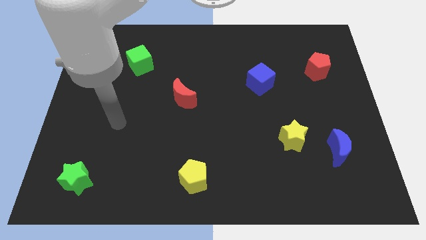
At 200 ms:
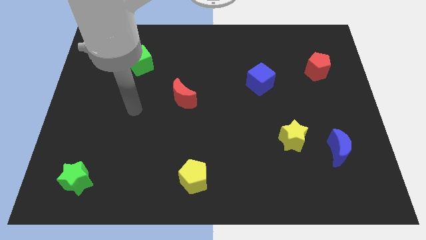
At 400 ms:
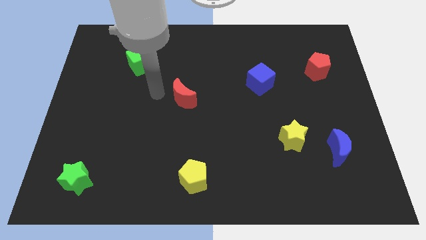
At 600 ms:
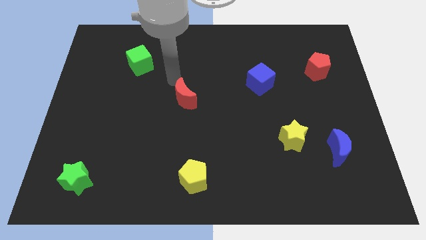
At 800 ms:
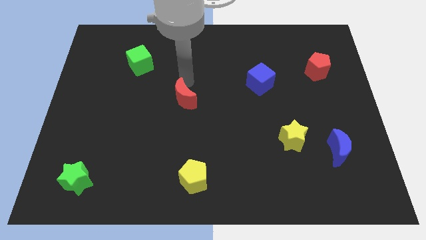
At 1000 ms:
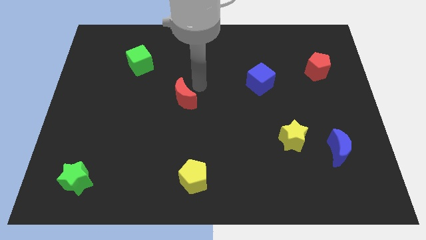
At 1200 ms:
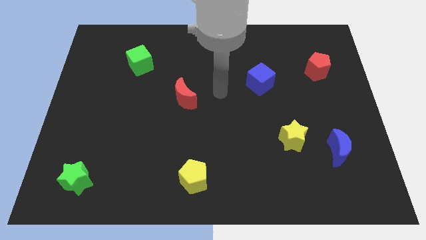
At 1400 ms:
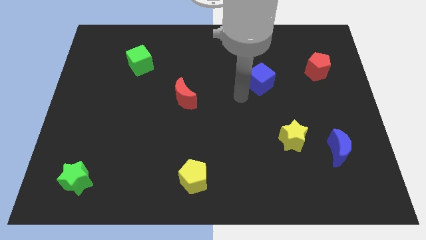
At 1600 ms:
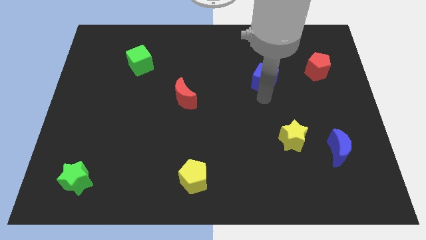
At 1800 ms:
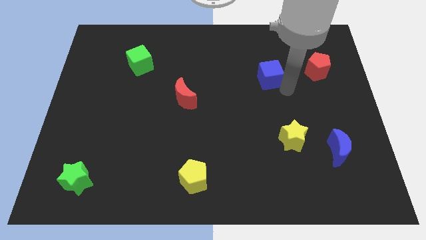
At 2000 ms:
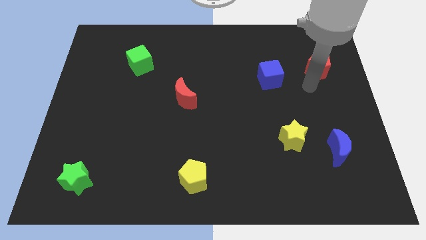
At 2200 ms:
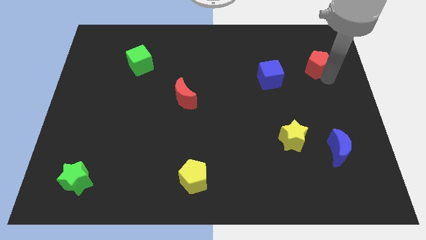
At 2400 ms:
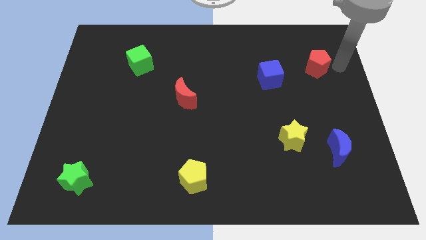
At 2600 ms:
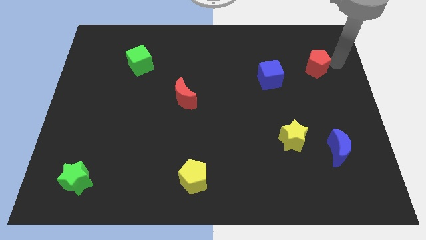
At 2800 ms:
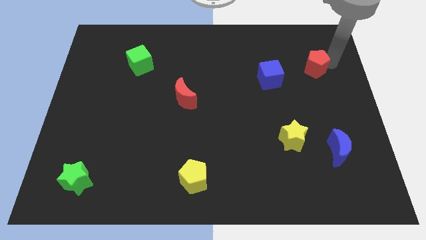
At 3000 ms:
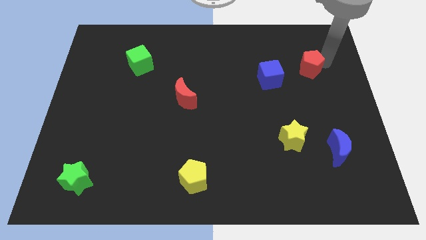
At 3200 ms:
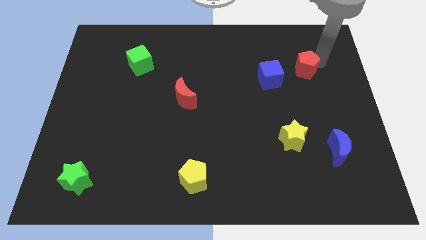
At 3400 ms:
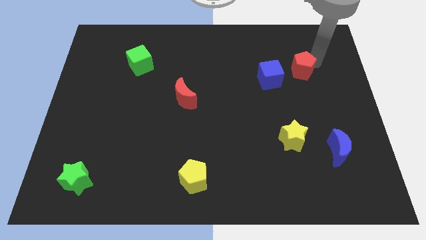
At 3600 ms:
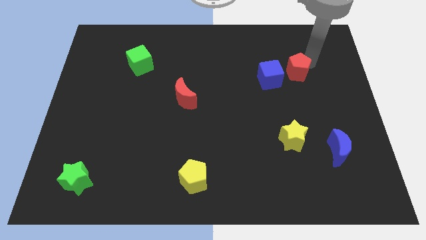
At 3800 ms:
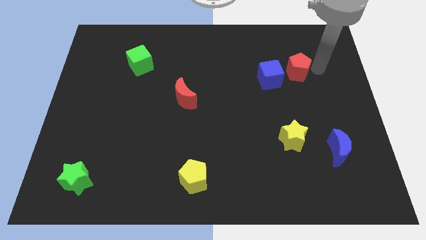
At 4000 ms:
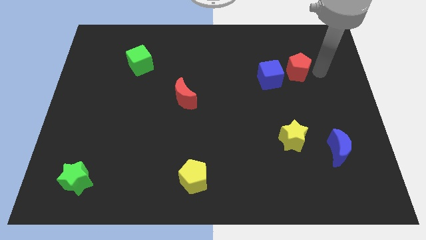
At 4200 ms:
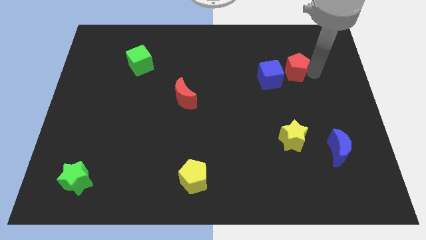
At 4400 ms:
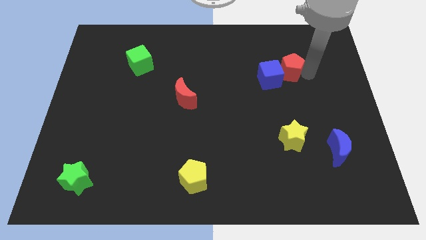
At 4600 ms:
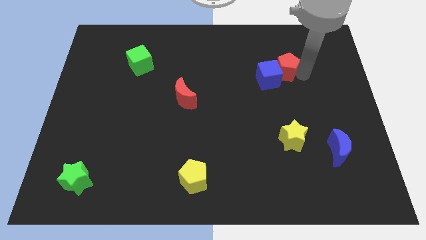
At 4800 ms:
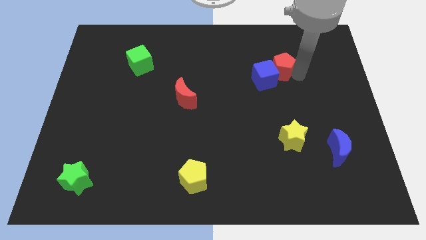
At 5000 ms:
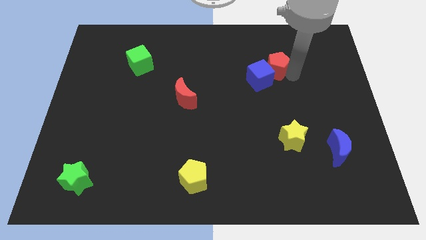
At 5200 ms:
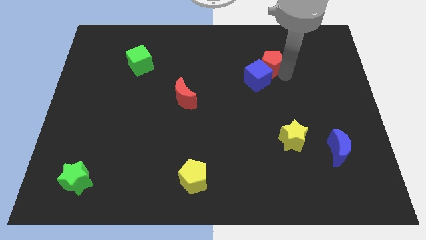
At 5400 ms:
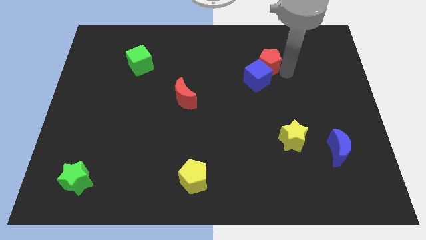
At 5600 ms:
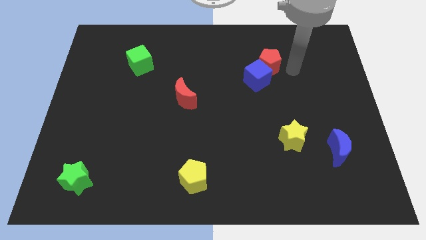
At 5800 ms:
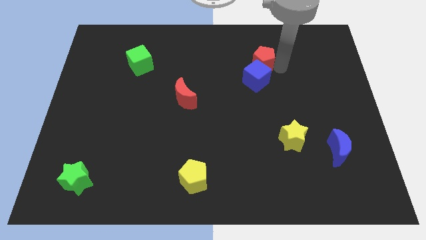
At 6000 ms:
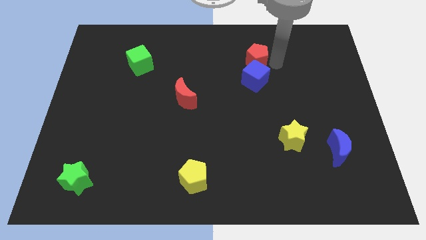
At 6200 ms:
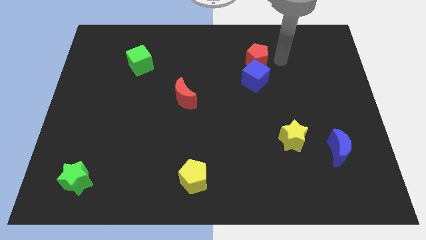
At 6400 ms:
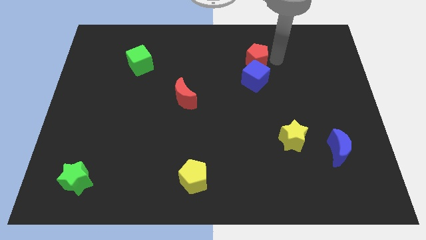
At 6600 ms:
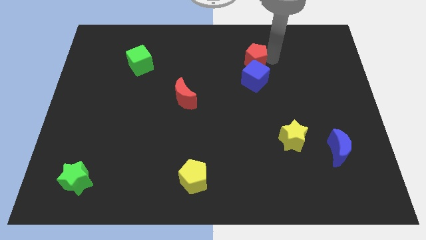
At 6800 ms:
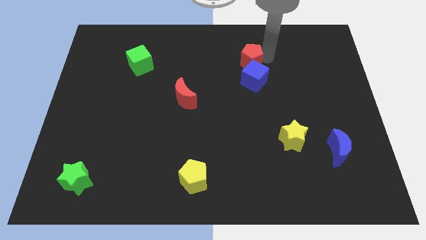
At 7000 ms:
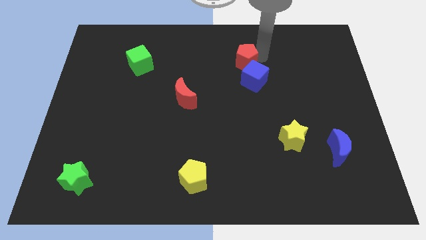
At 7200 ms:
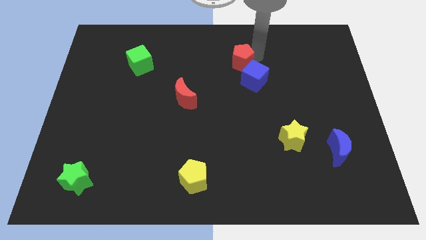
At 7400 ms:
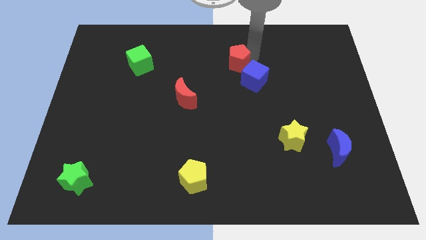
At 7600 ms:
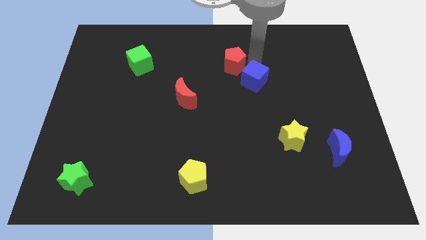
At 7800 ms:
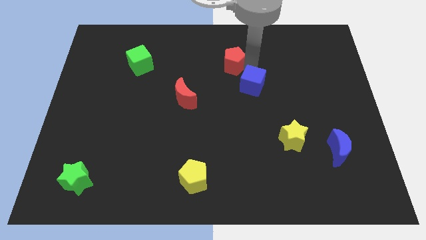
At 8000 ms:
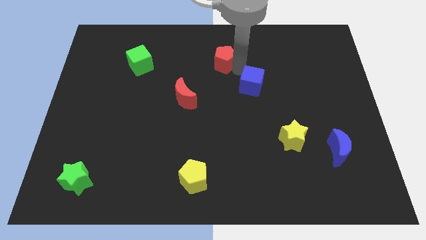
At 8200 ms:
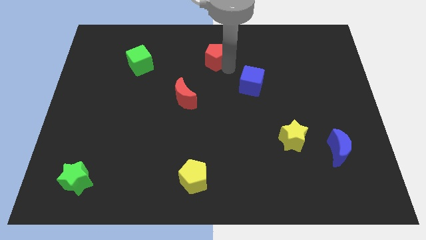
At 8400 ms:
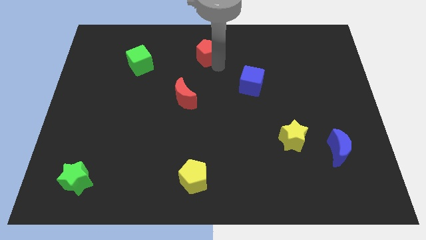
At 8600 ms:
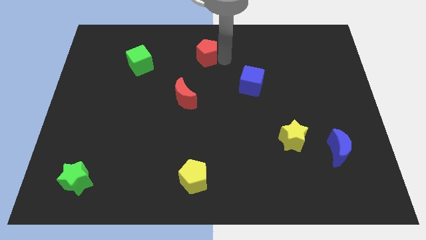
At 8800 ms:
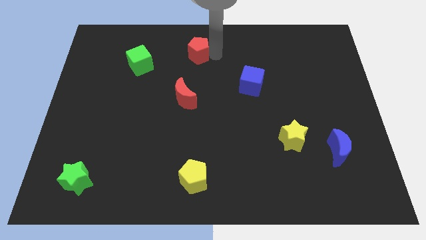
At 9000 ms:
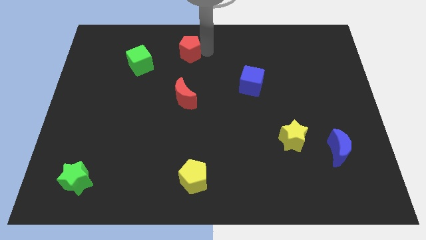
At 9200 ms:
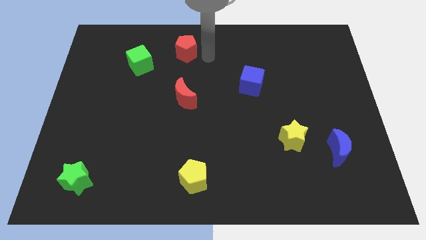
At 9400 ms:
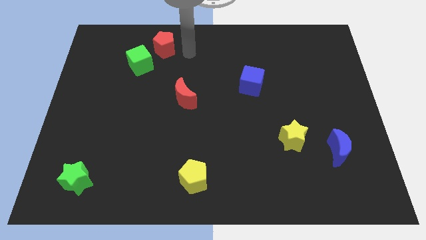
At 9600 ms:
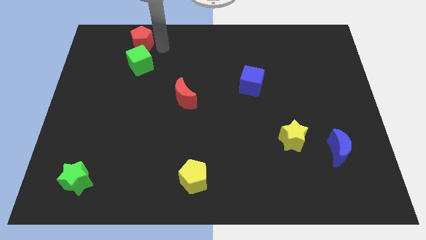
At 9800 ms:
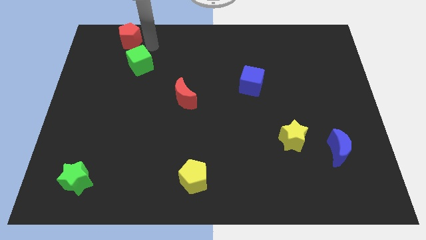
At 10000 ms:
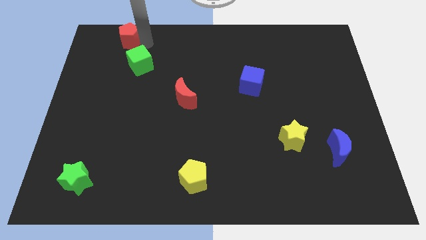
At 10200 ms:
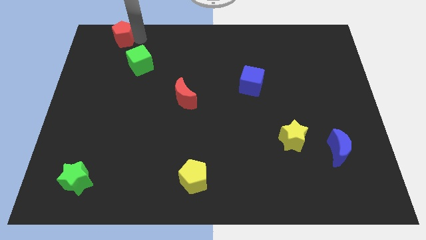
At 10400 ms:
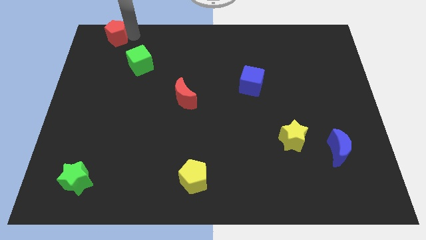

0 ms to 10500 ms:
put the red pentagon to the upper left corner

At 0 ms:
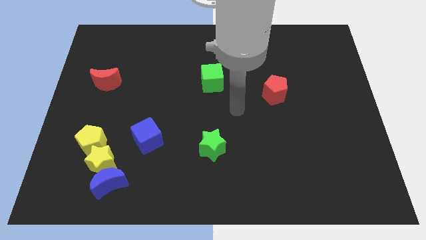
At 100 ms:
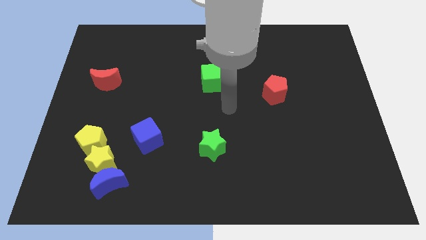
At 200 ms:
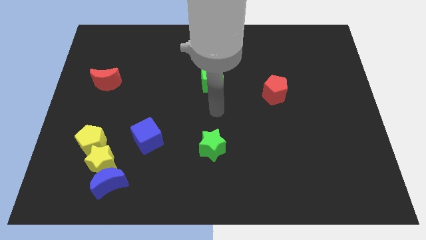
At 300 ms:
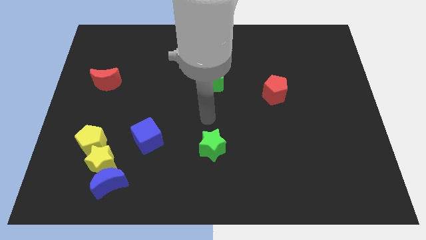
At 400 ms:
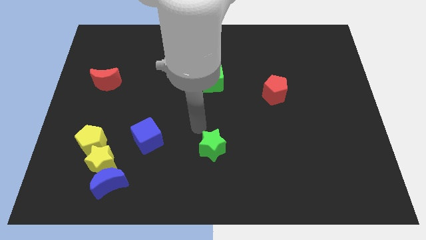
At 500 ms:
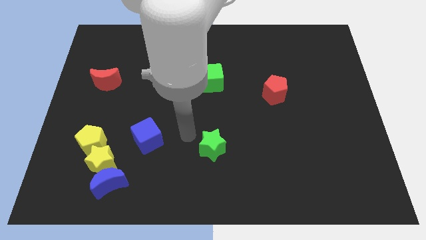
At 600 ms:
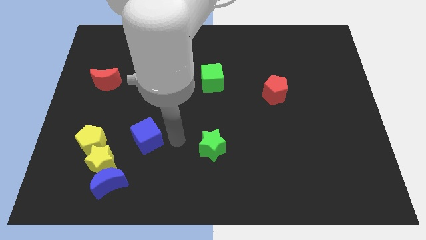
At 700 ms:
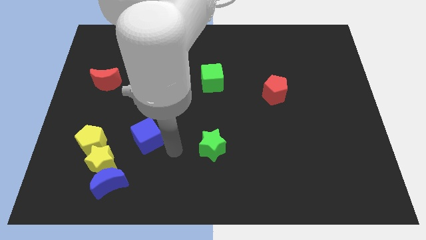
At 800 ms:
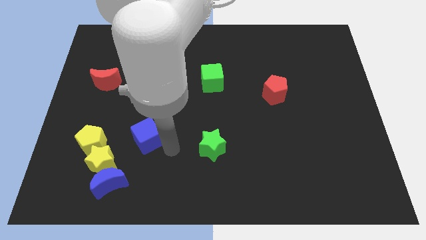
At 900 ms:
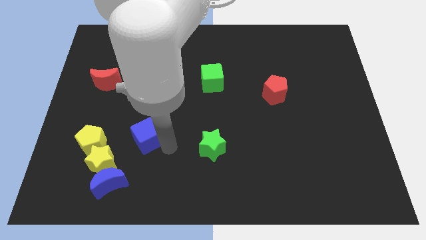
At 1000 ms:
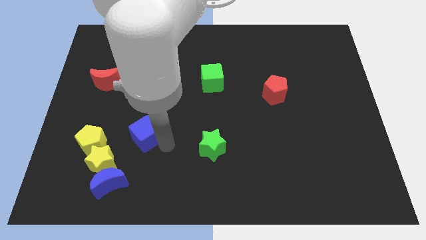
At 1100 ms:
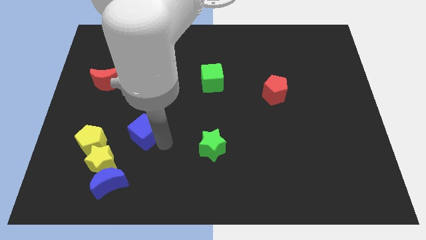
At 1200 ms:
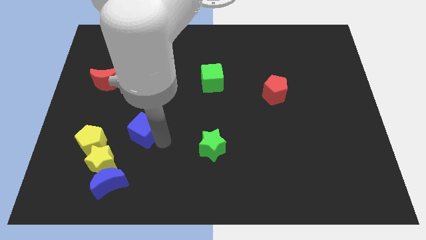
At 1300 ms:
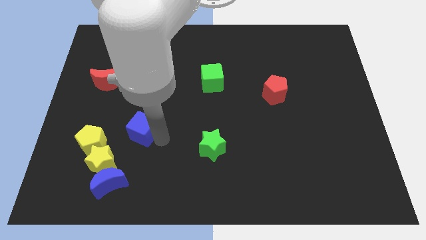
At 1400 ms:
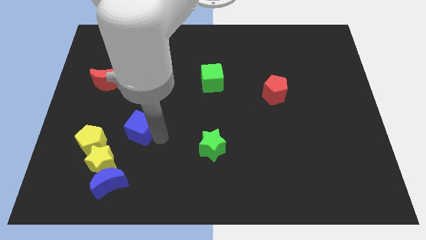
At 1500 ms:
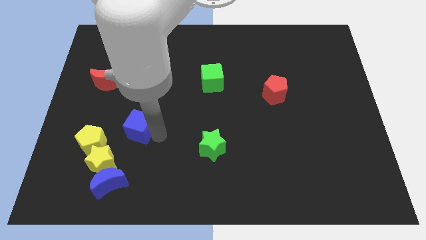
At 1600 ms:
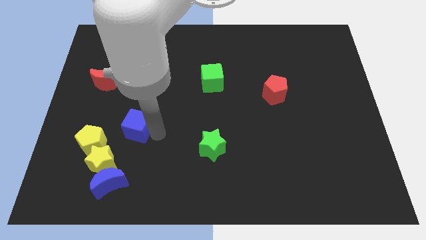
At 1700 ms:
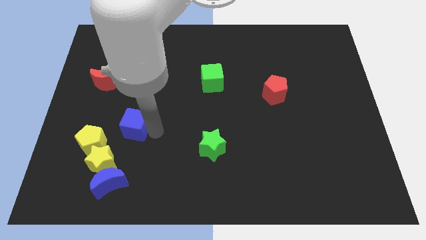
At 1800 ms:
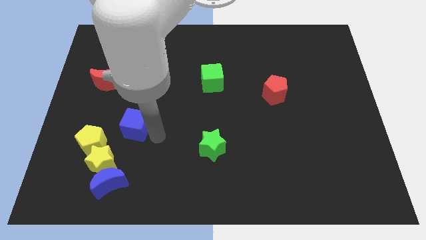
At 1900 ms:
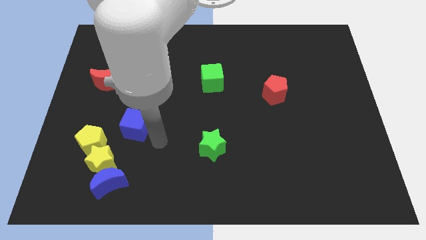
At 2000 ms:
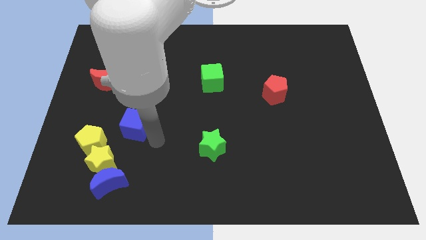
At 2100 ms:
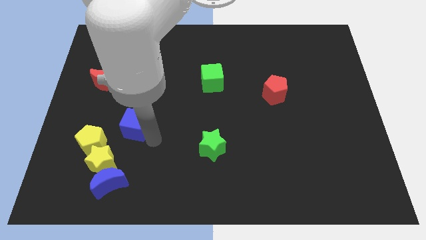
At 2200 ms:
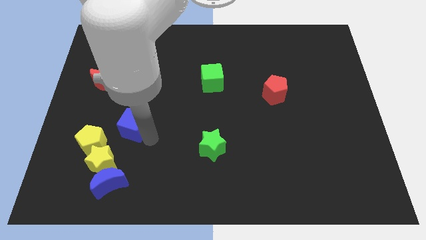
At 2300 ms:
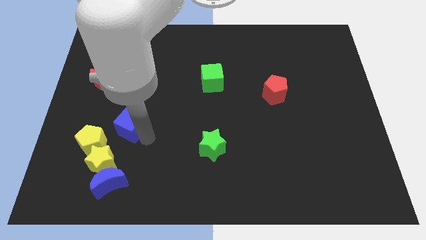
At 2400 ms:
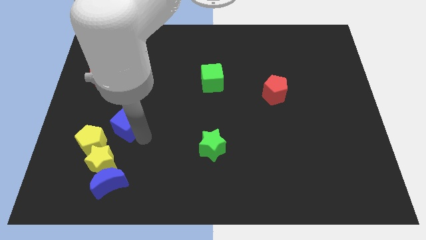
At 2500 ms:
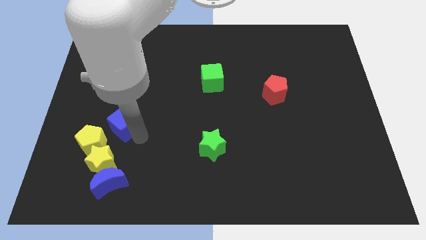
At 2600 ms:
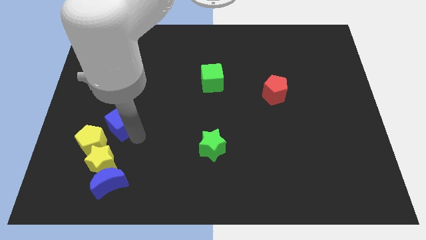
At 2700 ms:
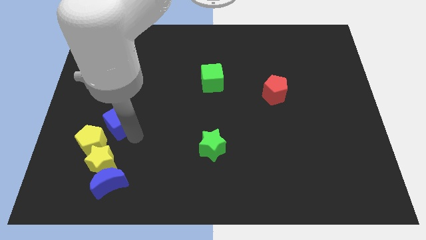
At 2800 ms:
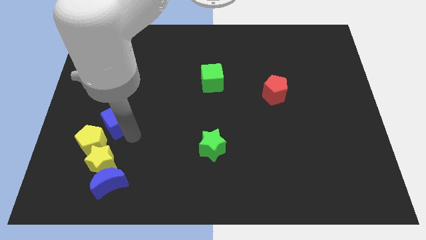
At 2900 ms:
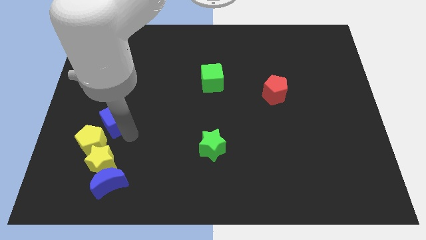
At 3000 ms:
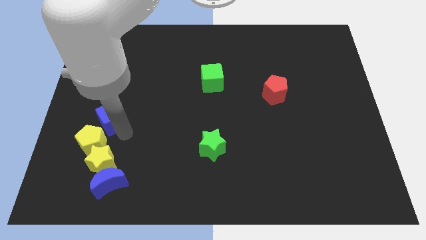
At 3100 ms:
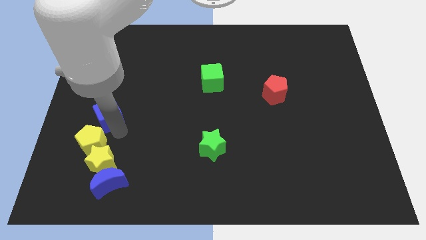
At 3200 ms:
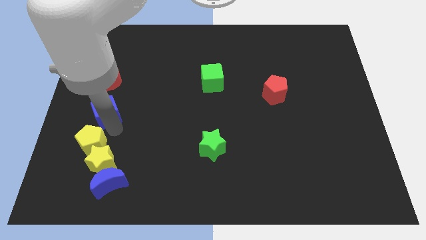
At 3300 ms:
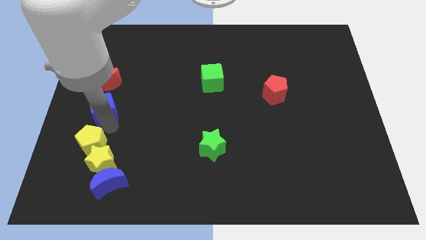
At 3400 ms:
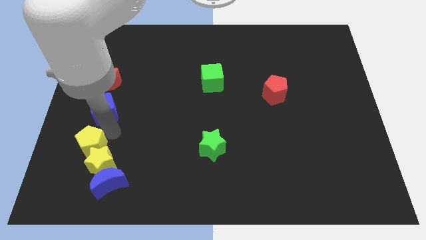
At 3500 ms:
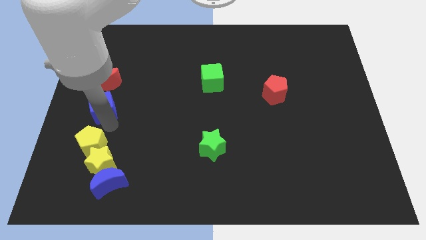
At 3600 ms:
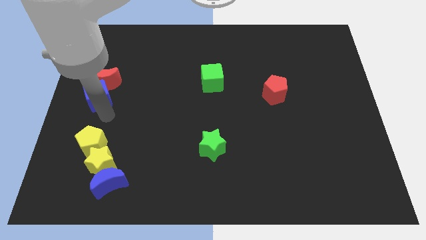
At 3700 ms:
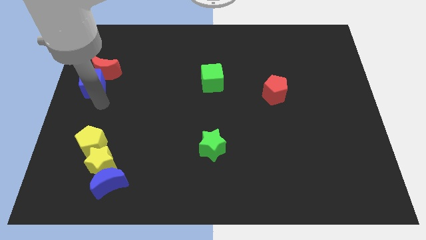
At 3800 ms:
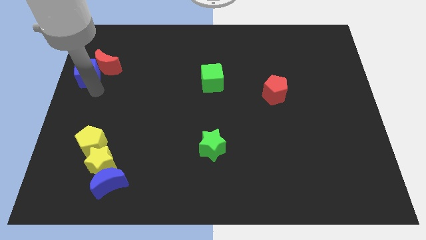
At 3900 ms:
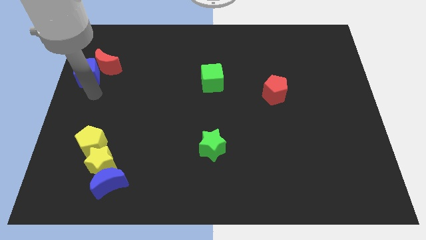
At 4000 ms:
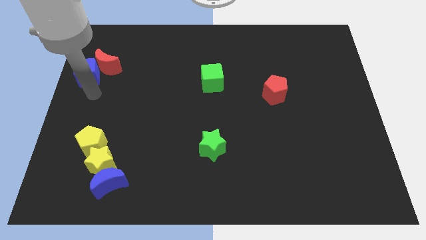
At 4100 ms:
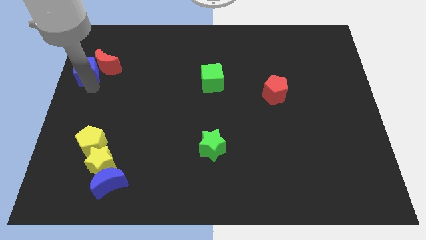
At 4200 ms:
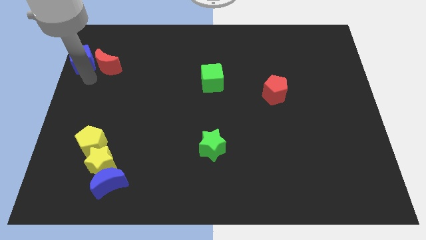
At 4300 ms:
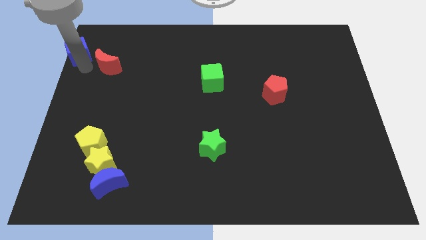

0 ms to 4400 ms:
move the blue cube to the upper left corner
